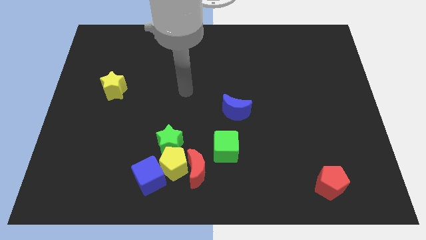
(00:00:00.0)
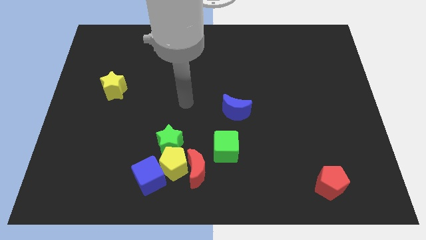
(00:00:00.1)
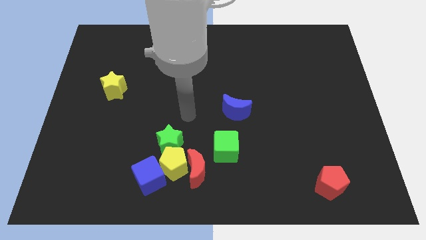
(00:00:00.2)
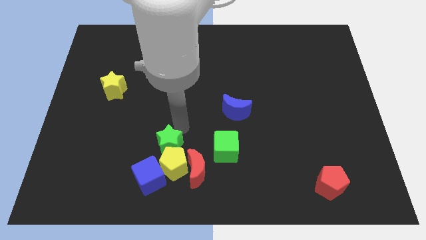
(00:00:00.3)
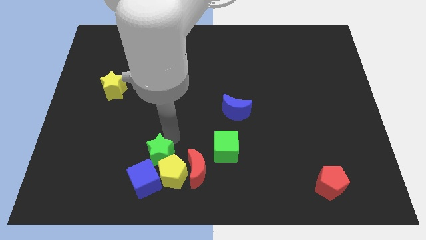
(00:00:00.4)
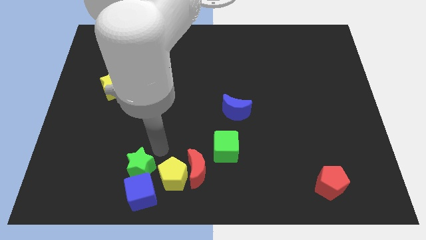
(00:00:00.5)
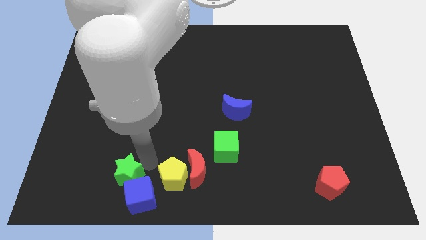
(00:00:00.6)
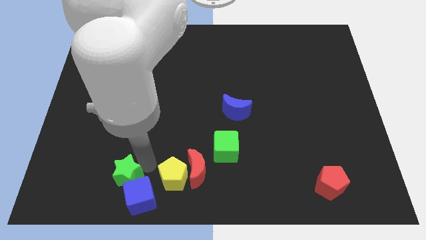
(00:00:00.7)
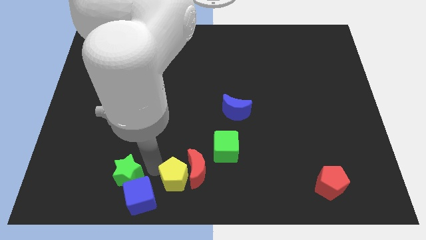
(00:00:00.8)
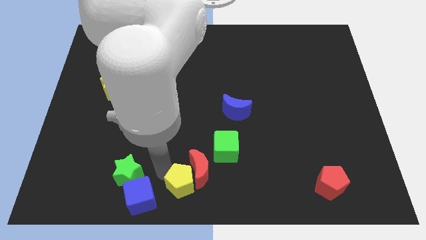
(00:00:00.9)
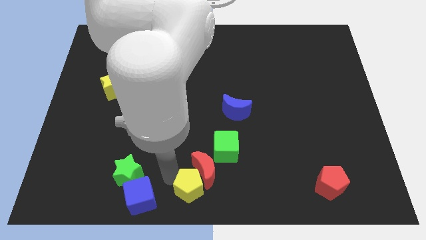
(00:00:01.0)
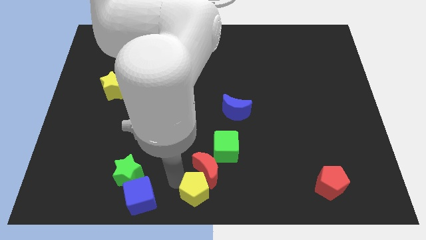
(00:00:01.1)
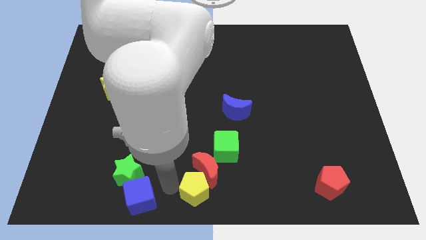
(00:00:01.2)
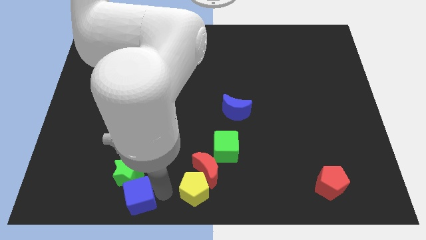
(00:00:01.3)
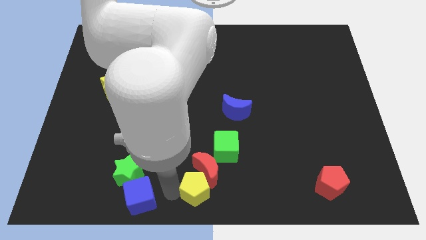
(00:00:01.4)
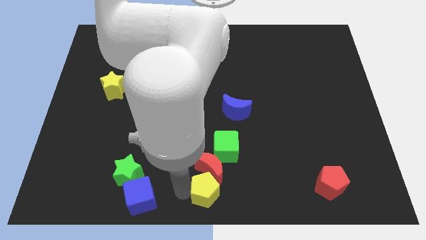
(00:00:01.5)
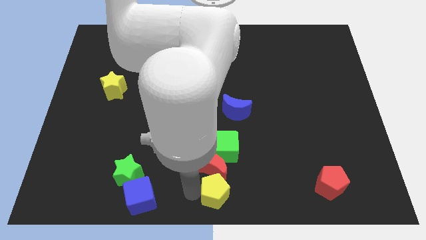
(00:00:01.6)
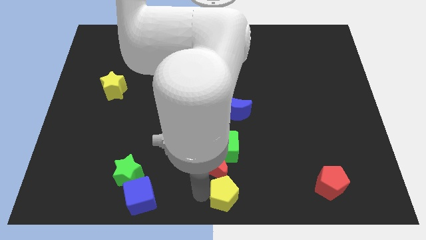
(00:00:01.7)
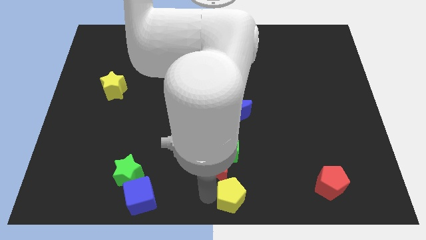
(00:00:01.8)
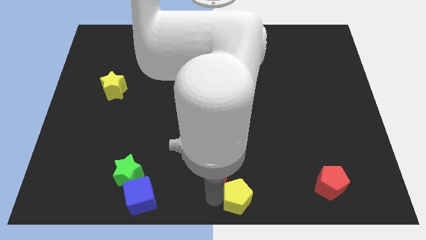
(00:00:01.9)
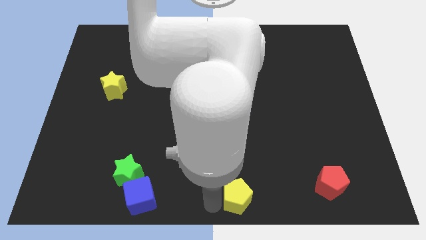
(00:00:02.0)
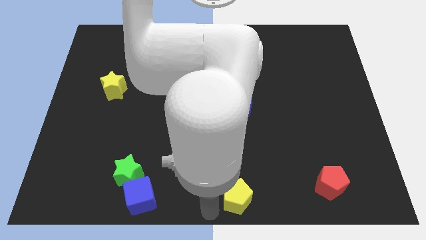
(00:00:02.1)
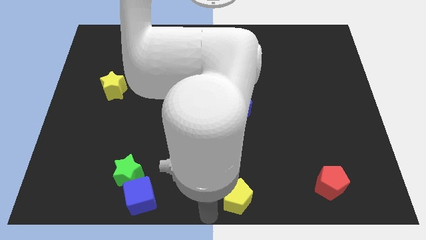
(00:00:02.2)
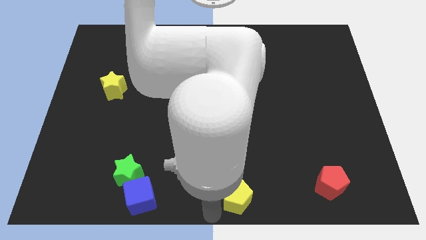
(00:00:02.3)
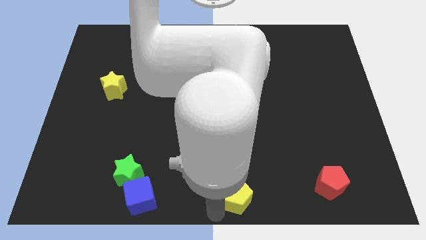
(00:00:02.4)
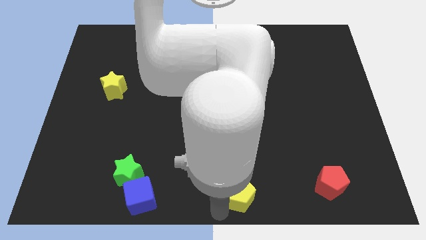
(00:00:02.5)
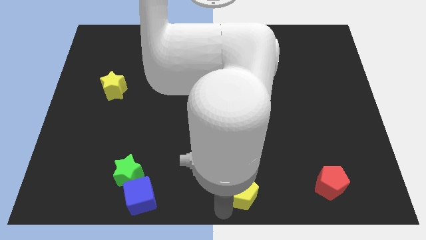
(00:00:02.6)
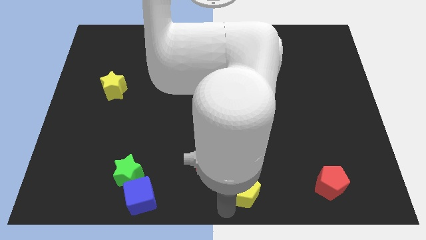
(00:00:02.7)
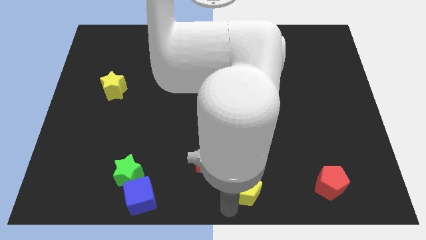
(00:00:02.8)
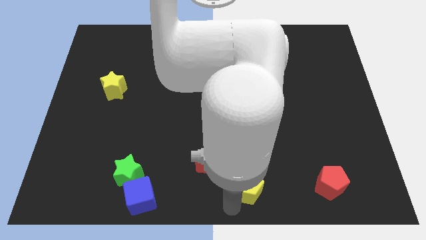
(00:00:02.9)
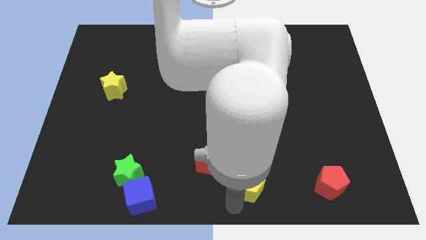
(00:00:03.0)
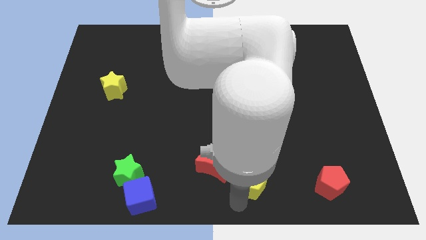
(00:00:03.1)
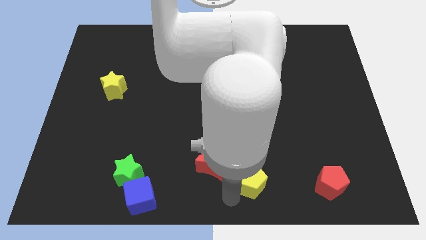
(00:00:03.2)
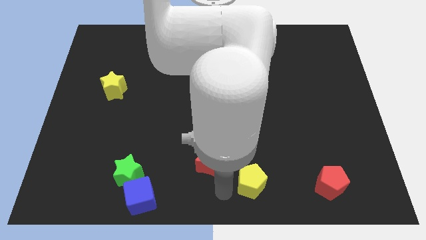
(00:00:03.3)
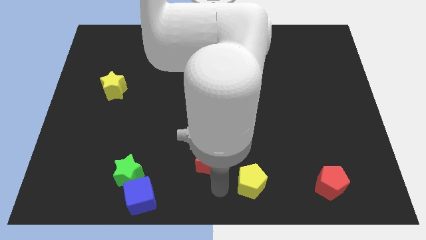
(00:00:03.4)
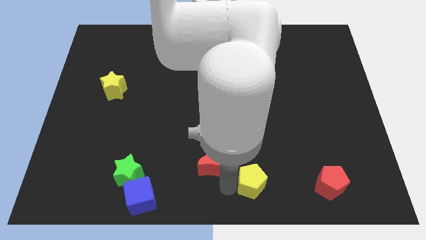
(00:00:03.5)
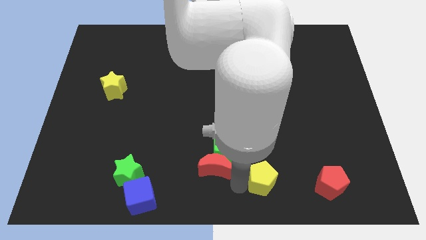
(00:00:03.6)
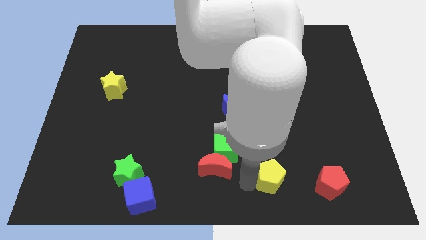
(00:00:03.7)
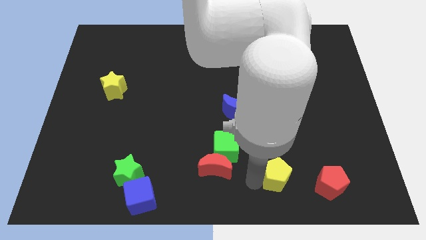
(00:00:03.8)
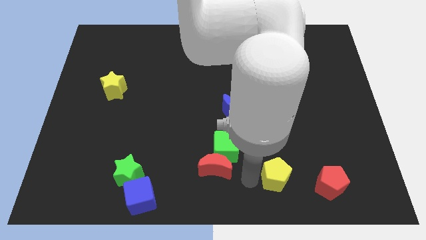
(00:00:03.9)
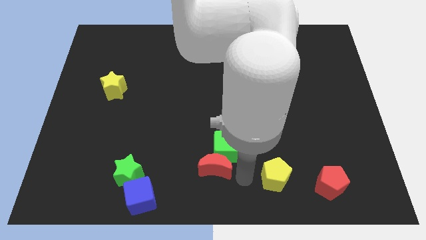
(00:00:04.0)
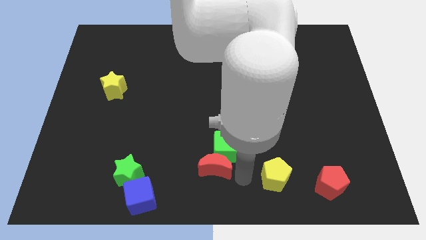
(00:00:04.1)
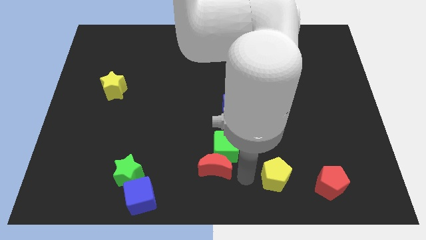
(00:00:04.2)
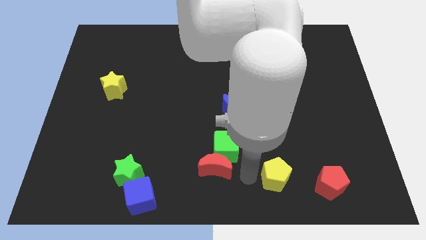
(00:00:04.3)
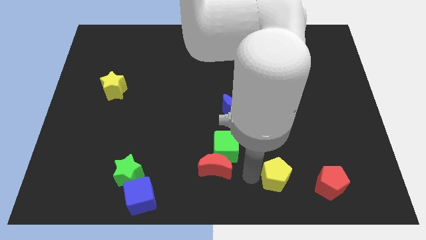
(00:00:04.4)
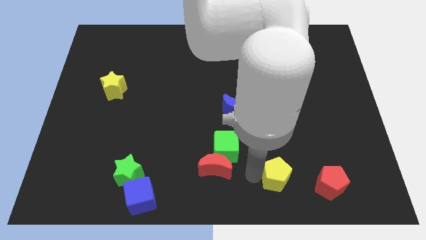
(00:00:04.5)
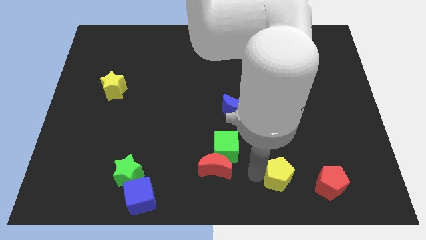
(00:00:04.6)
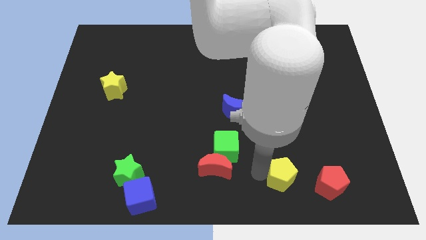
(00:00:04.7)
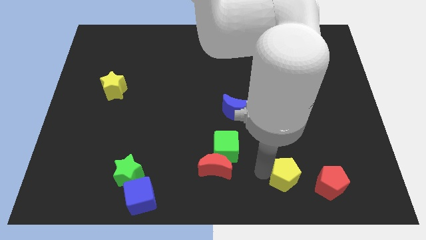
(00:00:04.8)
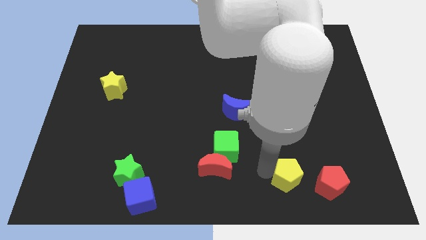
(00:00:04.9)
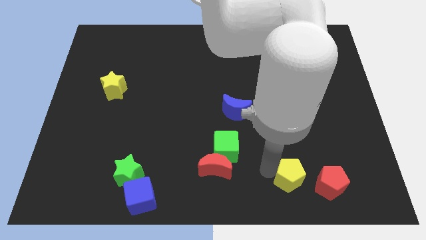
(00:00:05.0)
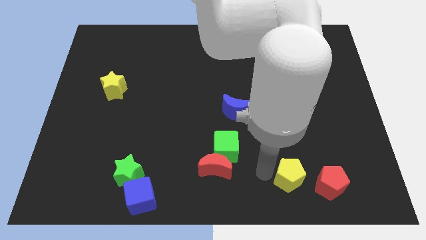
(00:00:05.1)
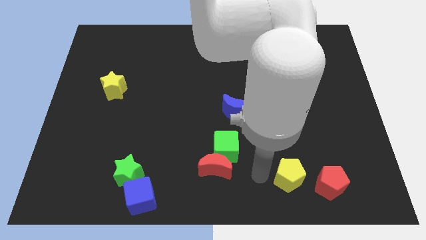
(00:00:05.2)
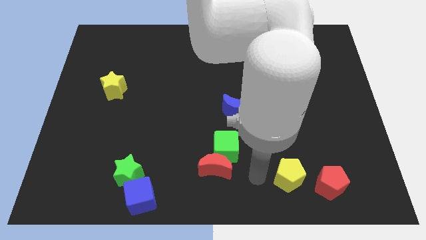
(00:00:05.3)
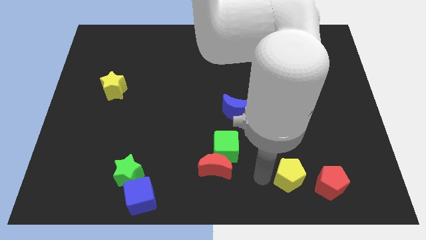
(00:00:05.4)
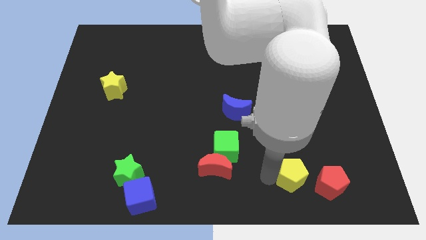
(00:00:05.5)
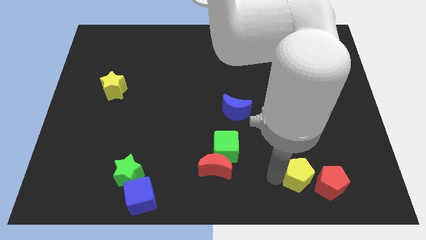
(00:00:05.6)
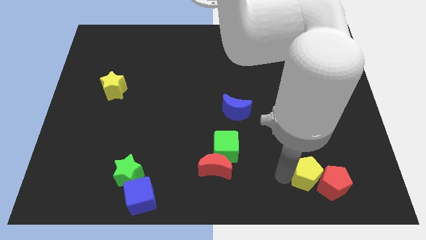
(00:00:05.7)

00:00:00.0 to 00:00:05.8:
put the yellow pentagon towards the red pentagon

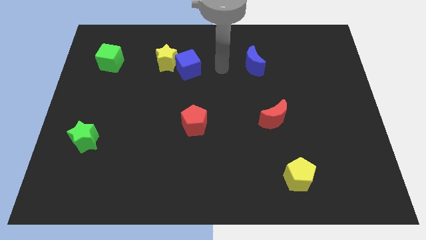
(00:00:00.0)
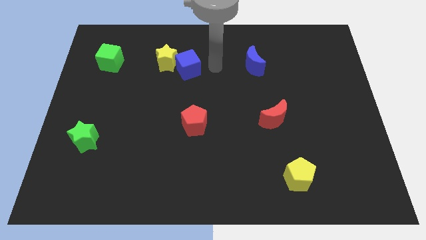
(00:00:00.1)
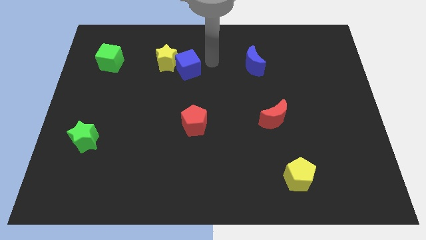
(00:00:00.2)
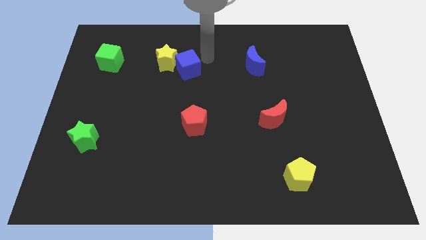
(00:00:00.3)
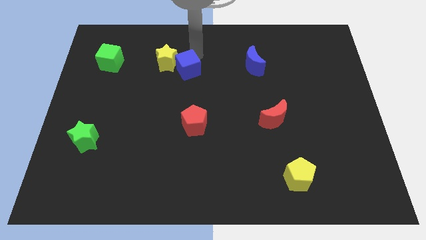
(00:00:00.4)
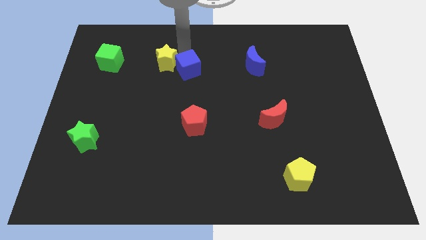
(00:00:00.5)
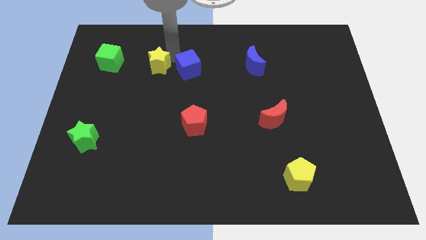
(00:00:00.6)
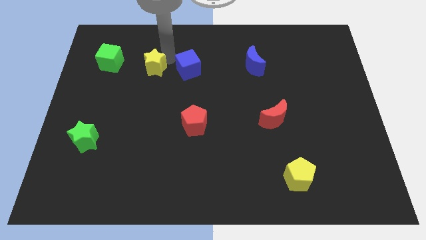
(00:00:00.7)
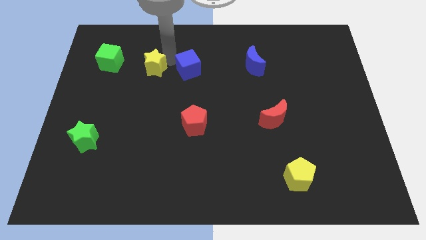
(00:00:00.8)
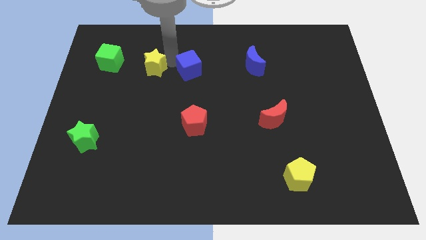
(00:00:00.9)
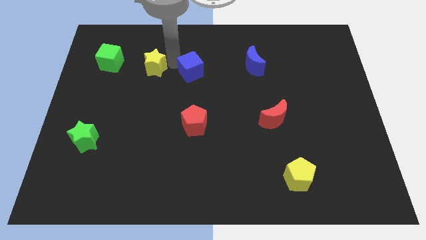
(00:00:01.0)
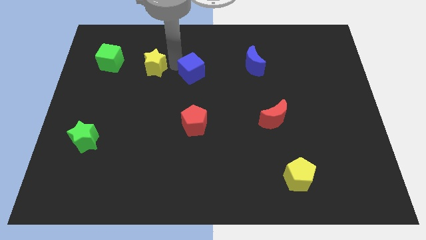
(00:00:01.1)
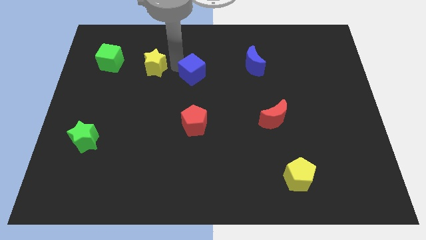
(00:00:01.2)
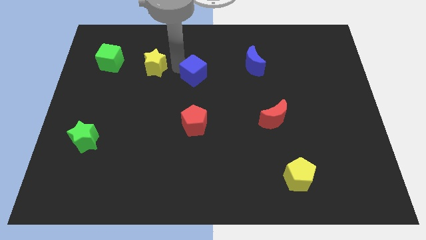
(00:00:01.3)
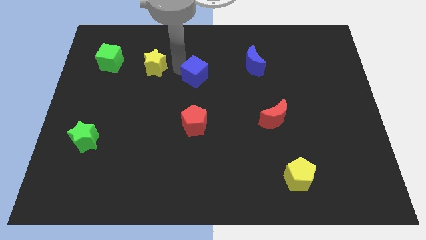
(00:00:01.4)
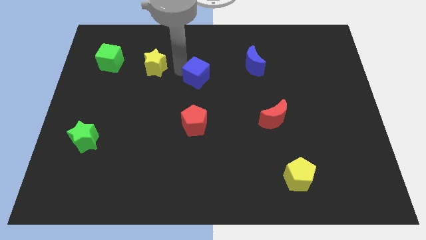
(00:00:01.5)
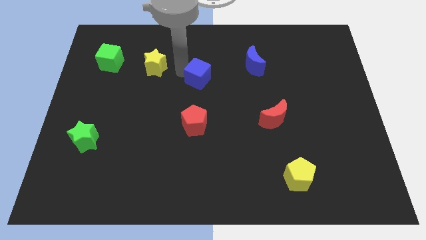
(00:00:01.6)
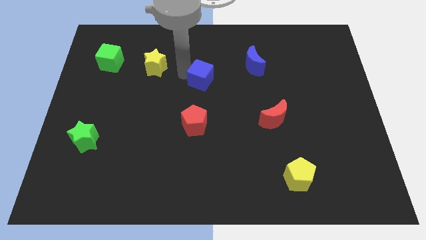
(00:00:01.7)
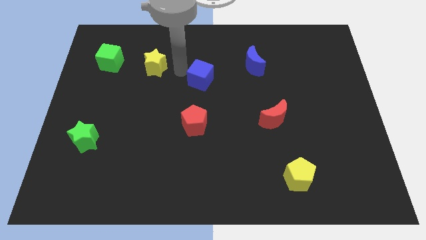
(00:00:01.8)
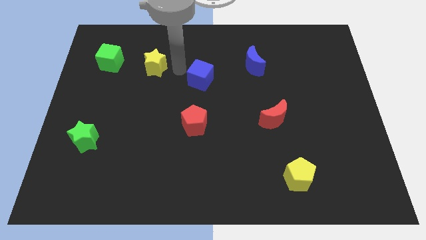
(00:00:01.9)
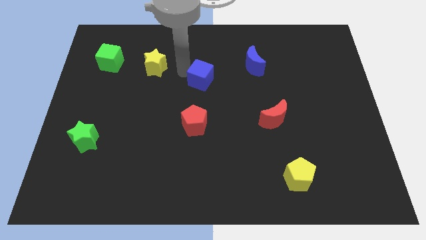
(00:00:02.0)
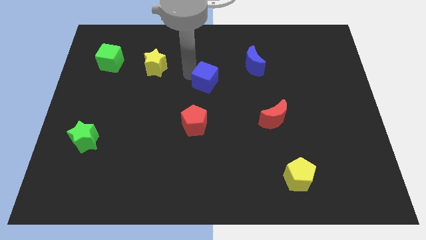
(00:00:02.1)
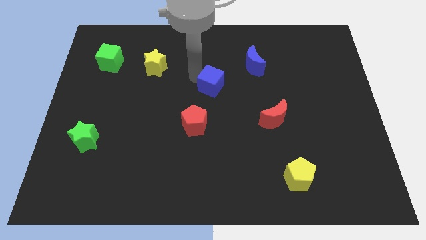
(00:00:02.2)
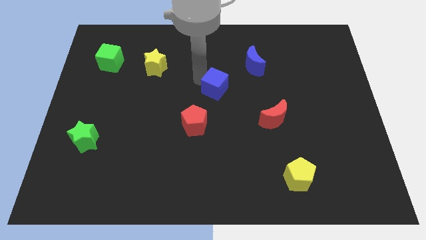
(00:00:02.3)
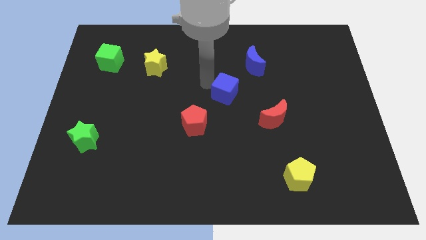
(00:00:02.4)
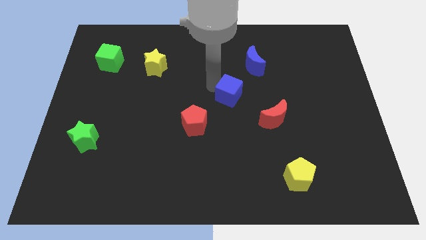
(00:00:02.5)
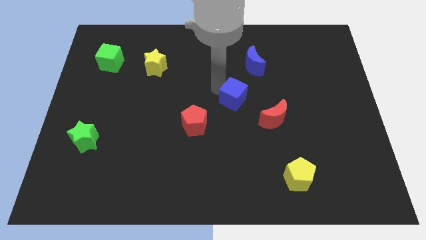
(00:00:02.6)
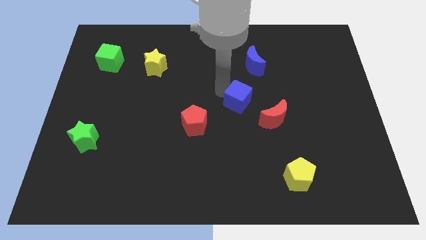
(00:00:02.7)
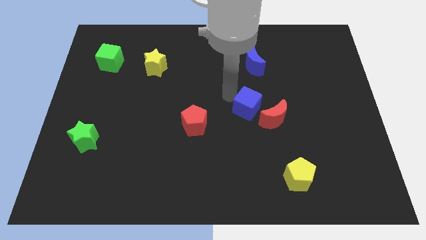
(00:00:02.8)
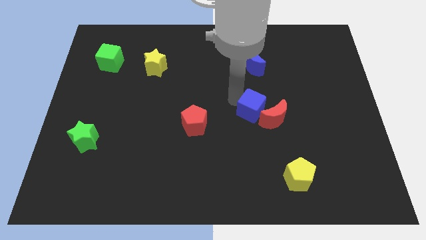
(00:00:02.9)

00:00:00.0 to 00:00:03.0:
put the blue cube next to the red moon
